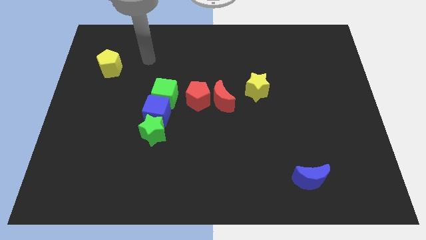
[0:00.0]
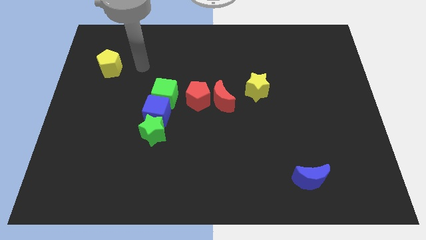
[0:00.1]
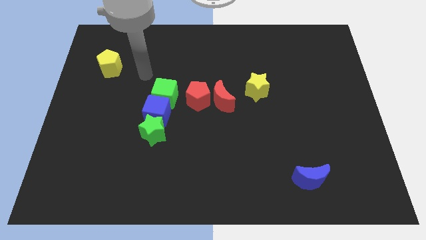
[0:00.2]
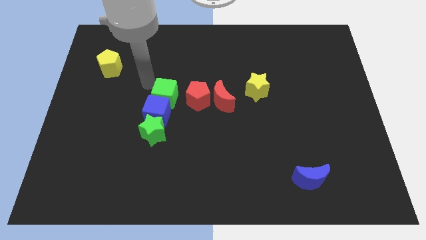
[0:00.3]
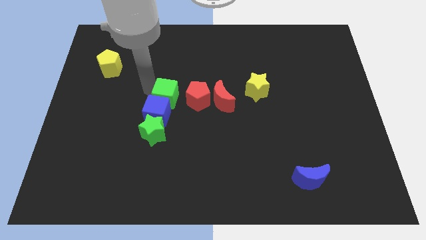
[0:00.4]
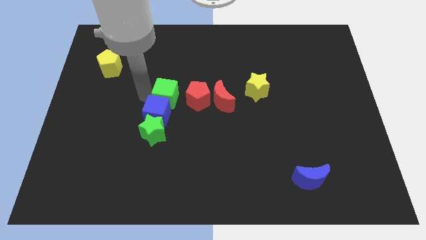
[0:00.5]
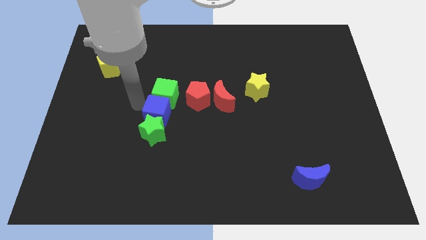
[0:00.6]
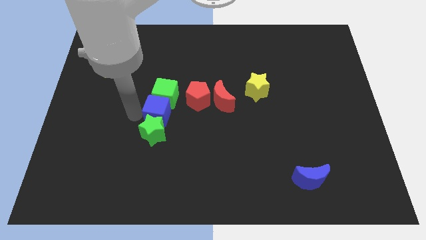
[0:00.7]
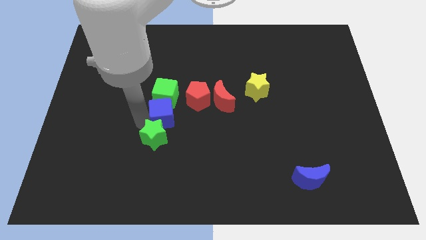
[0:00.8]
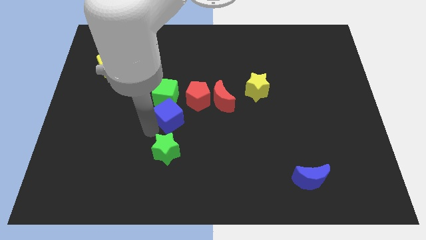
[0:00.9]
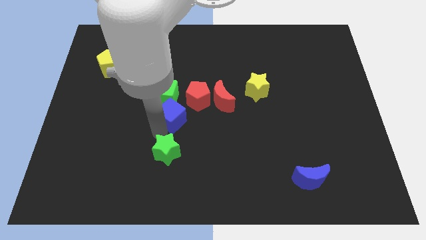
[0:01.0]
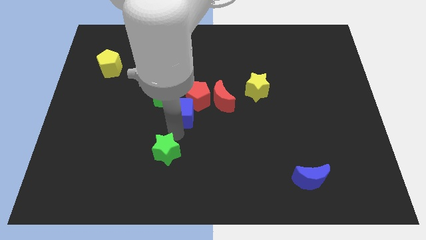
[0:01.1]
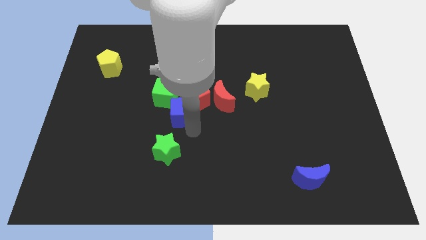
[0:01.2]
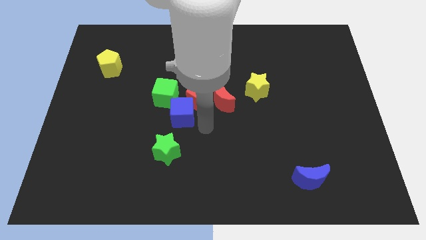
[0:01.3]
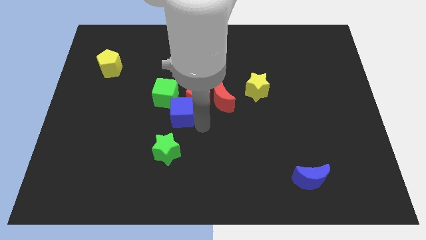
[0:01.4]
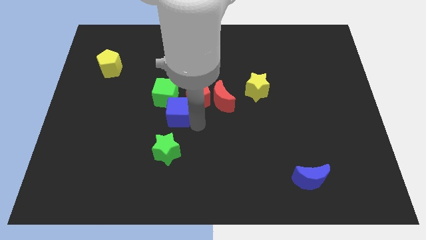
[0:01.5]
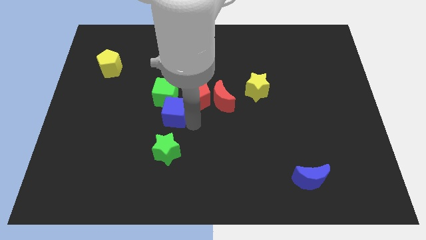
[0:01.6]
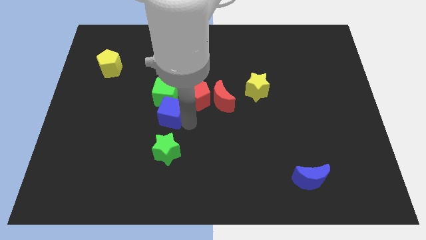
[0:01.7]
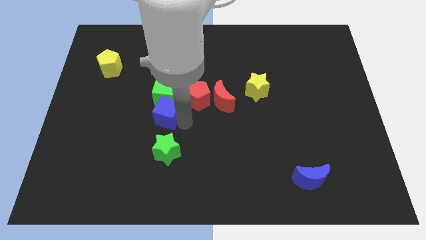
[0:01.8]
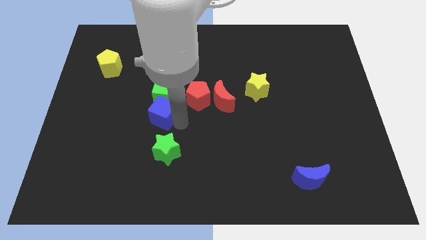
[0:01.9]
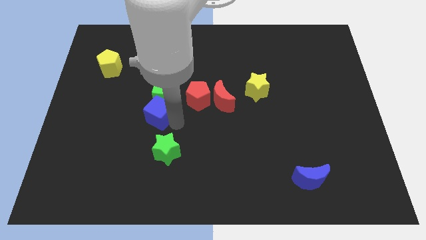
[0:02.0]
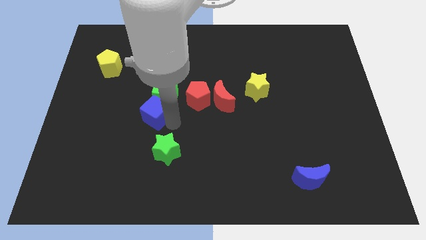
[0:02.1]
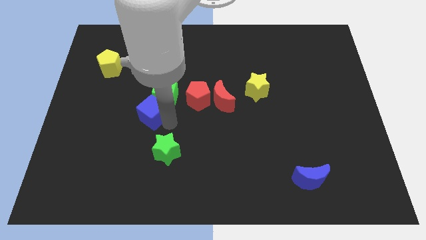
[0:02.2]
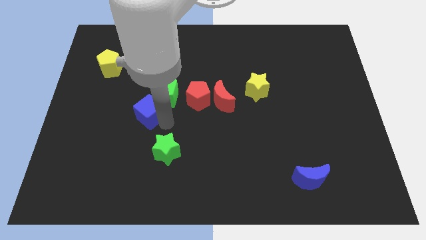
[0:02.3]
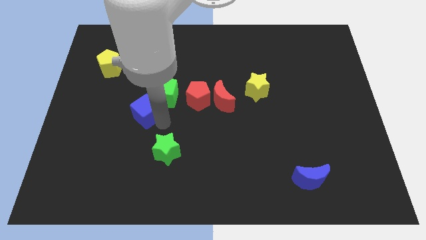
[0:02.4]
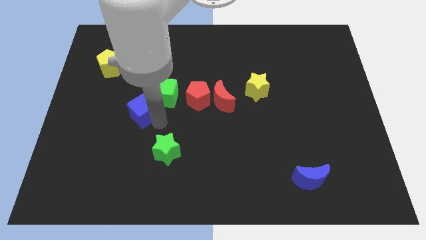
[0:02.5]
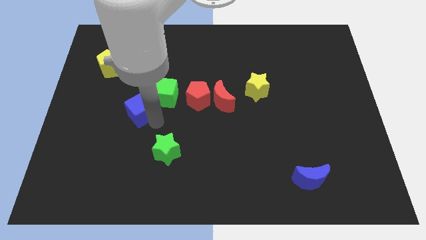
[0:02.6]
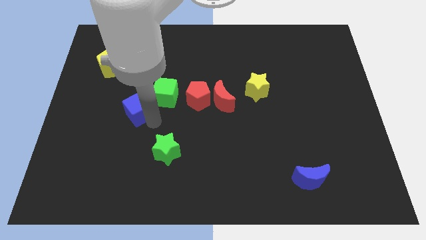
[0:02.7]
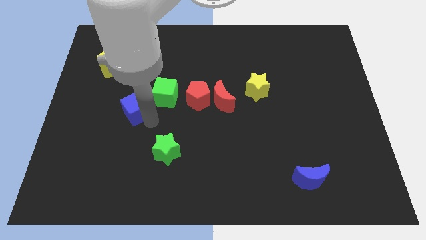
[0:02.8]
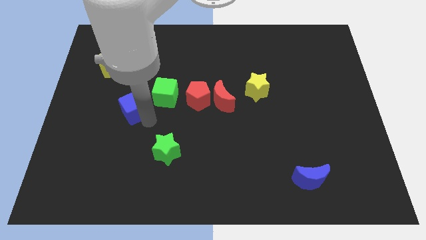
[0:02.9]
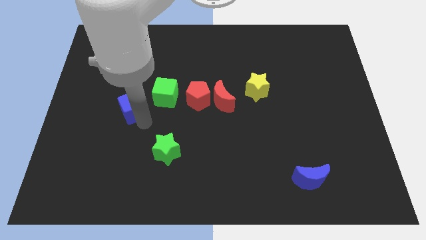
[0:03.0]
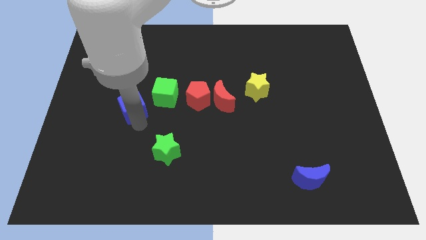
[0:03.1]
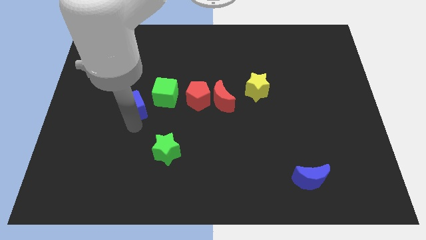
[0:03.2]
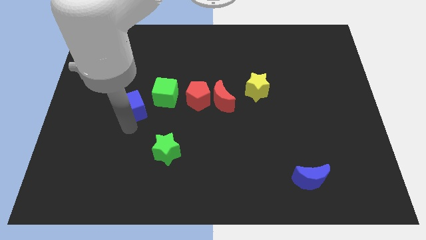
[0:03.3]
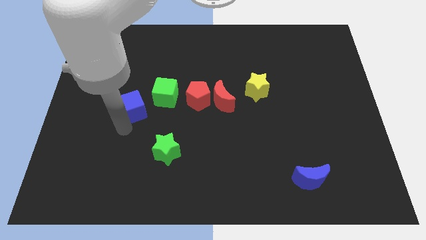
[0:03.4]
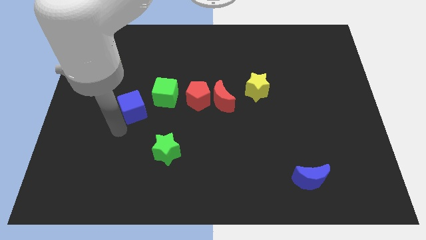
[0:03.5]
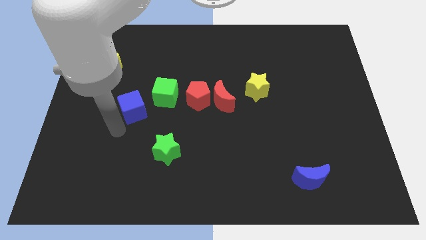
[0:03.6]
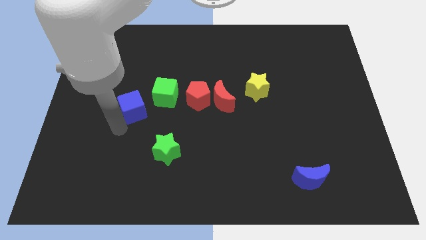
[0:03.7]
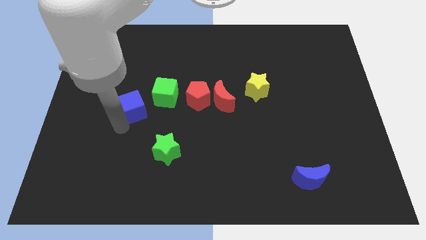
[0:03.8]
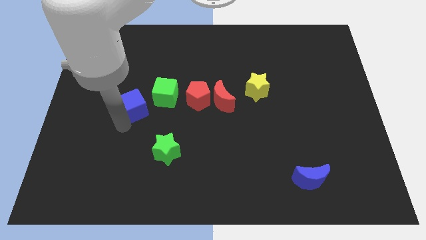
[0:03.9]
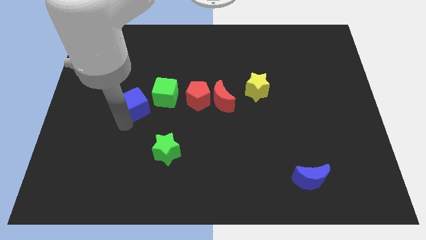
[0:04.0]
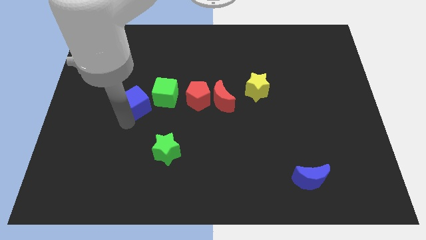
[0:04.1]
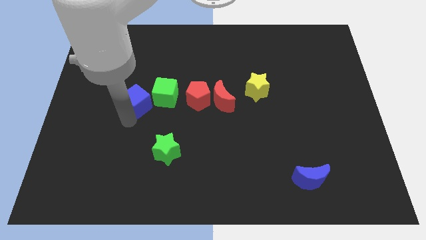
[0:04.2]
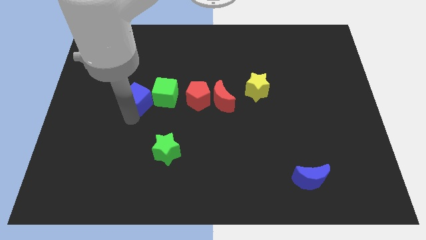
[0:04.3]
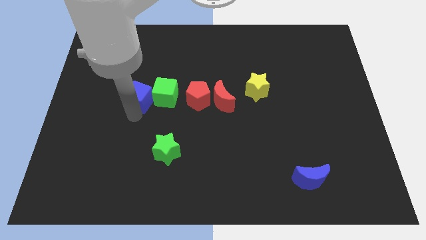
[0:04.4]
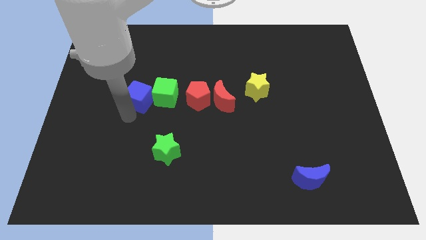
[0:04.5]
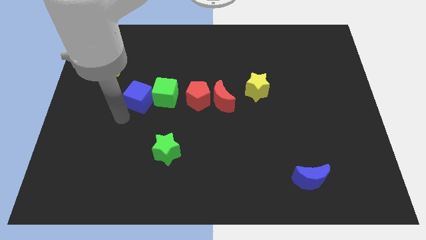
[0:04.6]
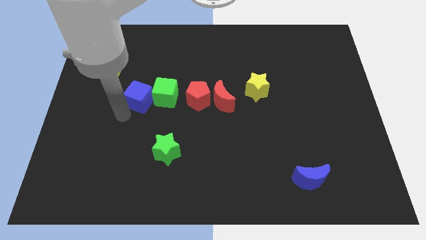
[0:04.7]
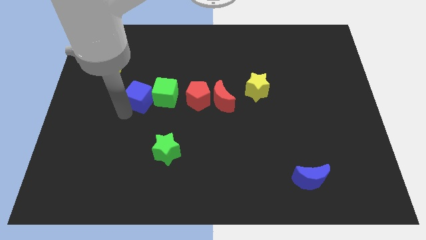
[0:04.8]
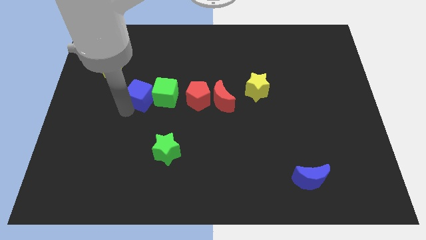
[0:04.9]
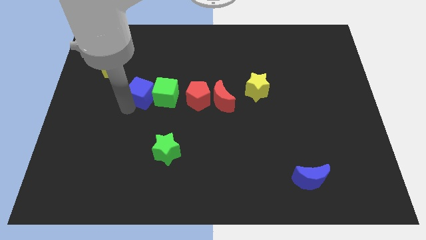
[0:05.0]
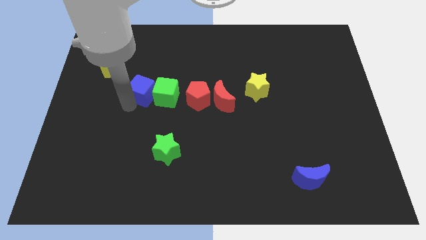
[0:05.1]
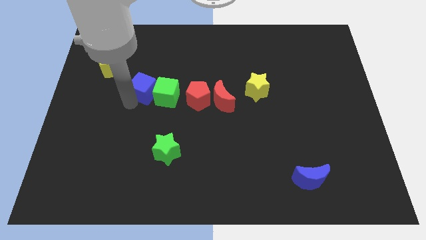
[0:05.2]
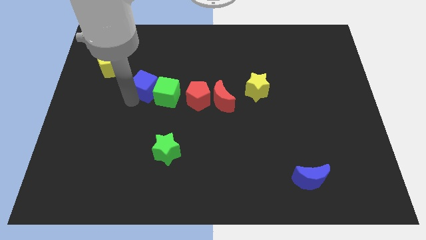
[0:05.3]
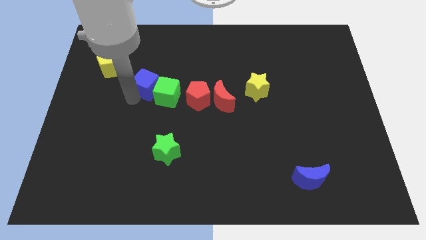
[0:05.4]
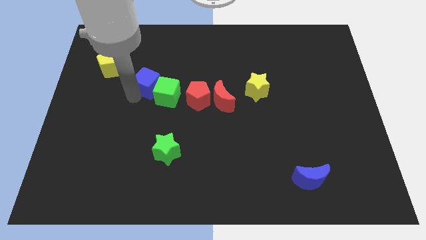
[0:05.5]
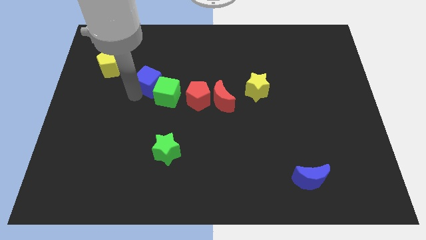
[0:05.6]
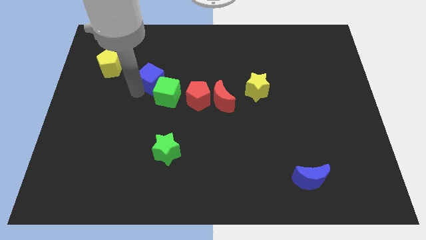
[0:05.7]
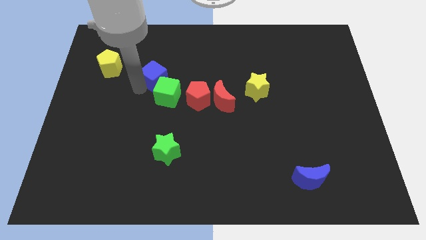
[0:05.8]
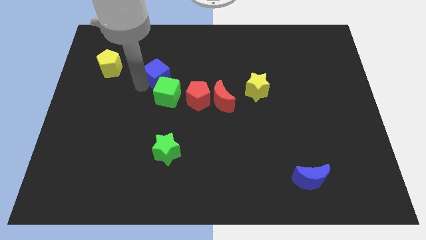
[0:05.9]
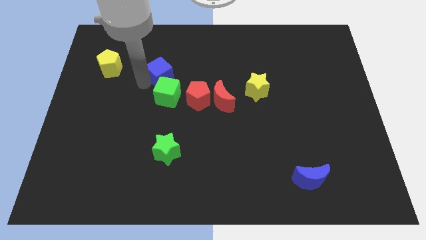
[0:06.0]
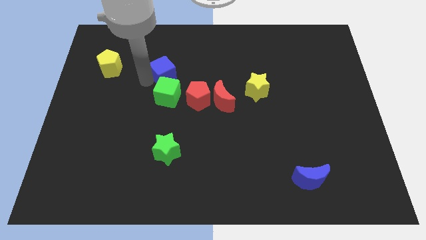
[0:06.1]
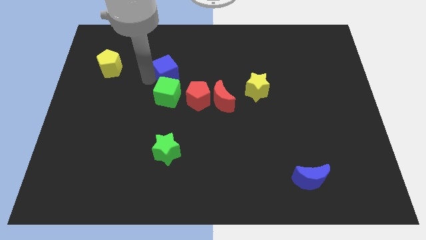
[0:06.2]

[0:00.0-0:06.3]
slide the blue cube a bit up and to the right

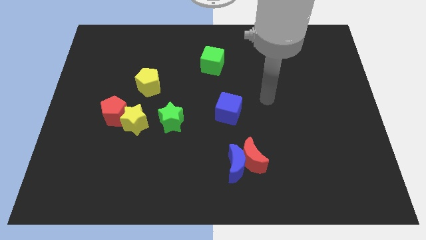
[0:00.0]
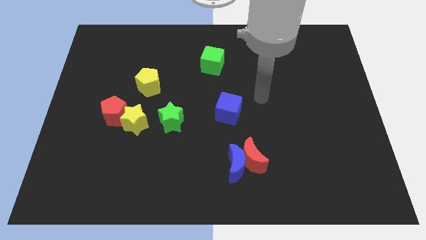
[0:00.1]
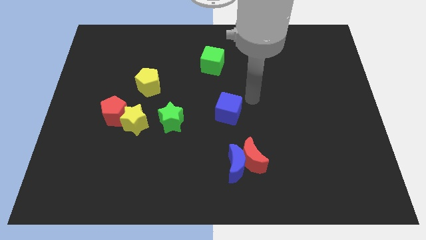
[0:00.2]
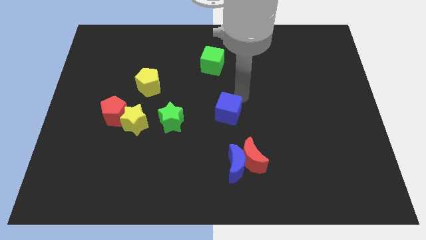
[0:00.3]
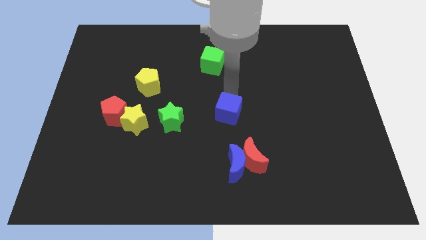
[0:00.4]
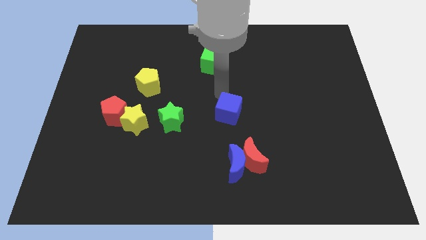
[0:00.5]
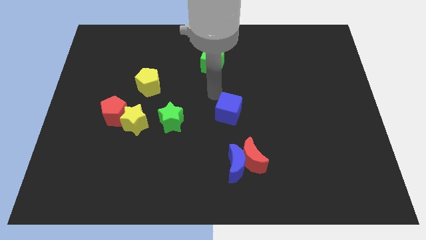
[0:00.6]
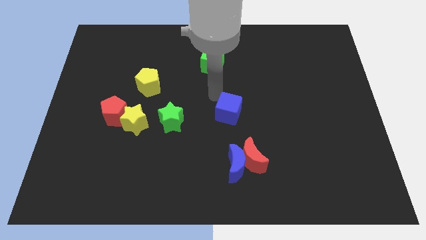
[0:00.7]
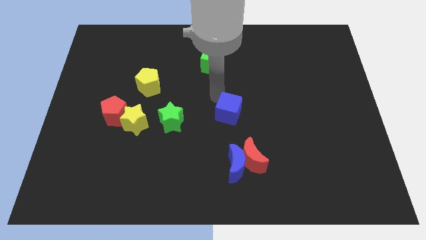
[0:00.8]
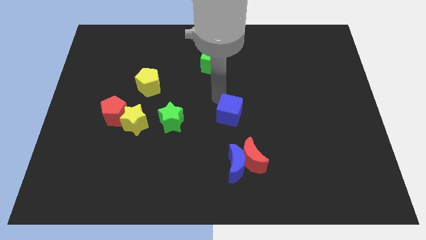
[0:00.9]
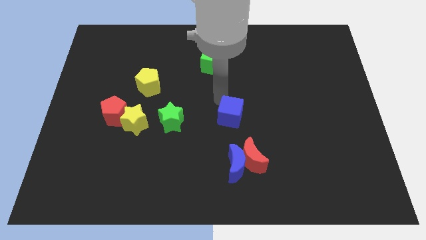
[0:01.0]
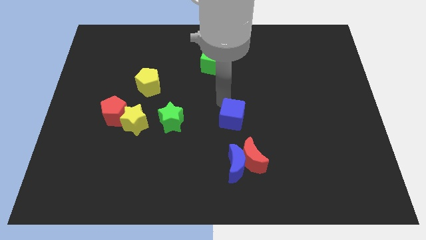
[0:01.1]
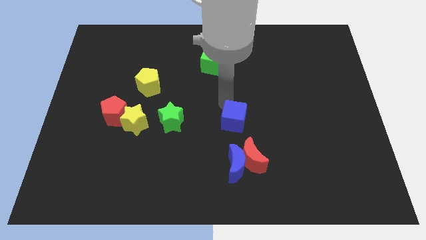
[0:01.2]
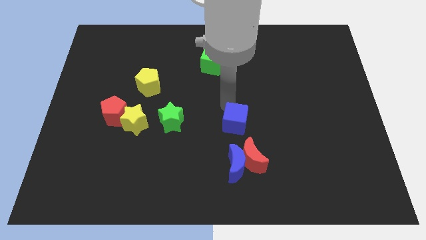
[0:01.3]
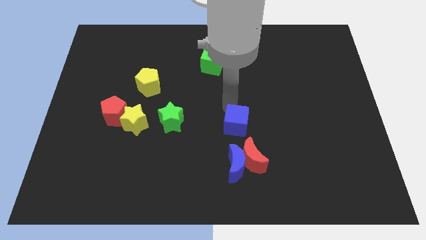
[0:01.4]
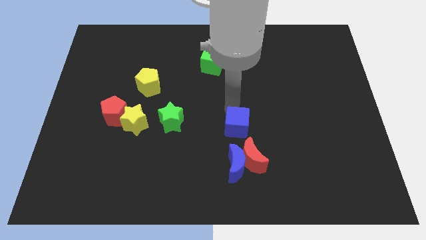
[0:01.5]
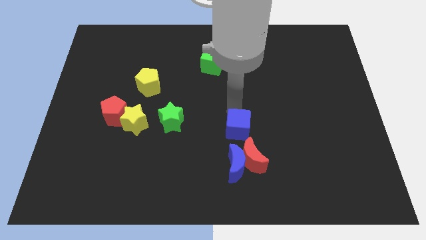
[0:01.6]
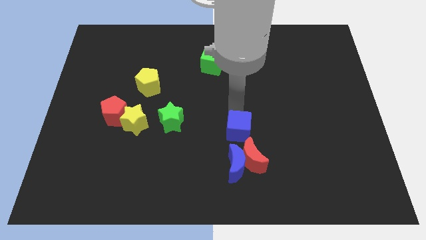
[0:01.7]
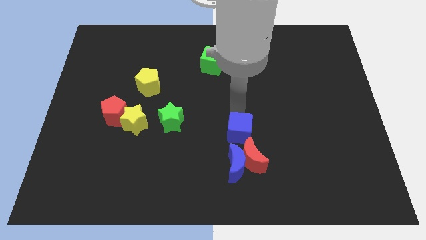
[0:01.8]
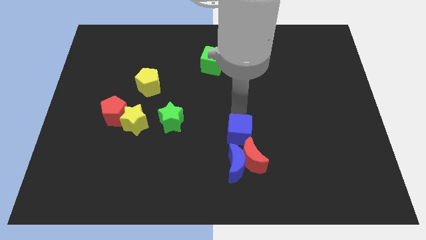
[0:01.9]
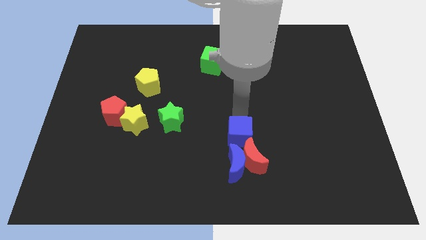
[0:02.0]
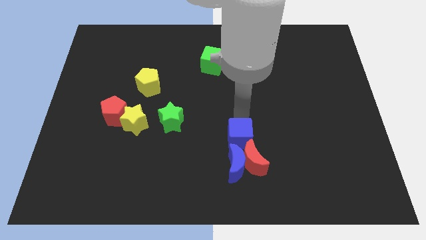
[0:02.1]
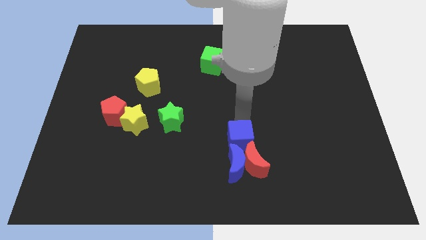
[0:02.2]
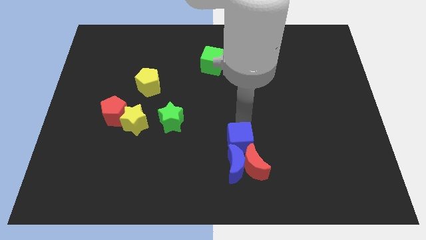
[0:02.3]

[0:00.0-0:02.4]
move the blue cube slightly down and to the right diagonally
